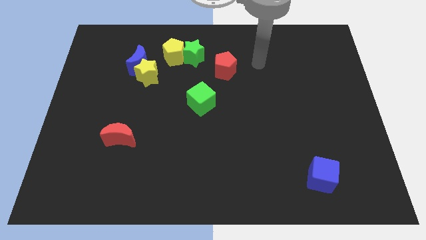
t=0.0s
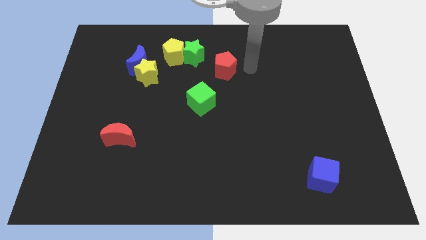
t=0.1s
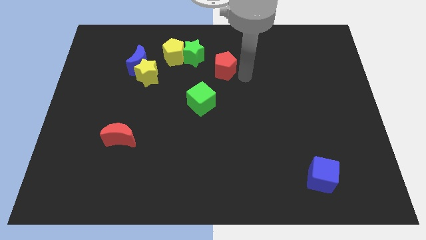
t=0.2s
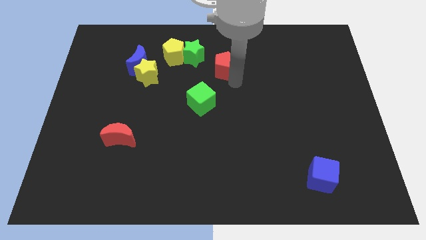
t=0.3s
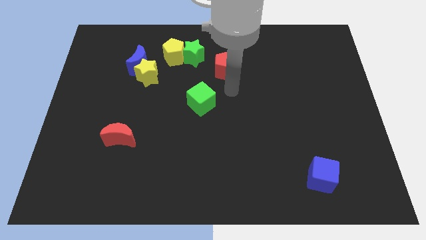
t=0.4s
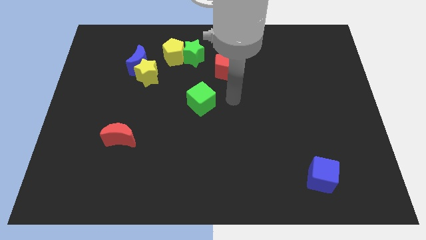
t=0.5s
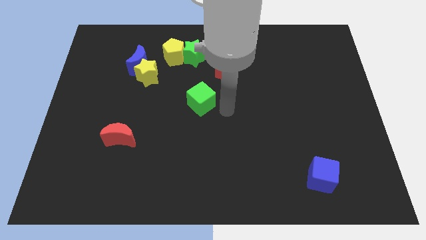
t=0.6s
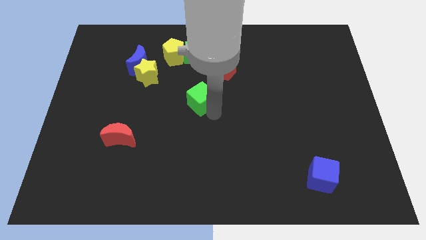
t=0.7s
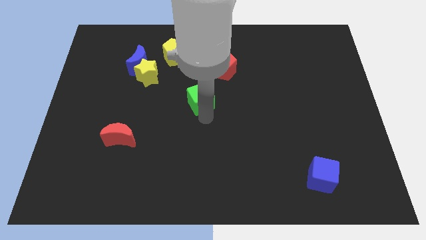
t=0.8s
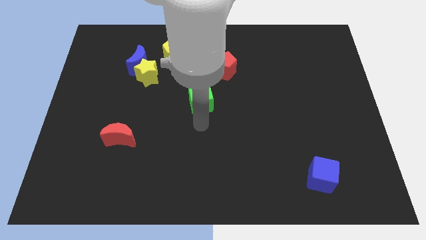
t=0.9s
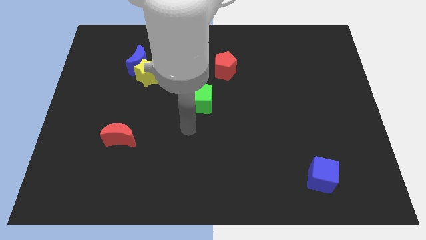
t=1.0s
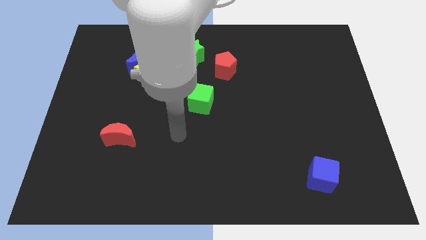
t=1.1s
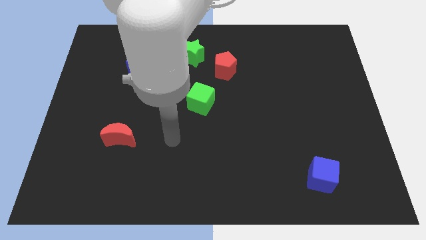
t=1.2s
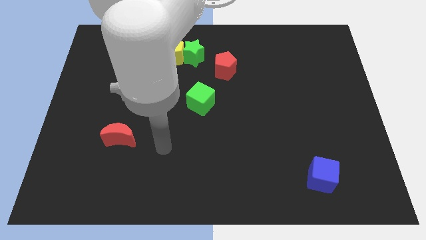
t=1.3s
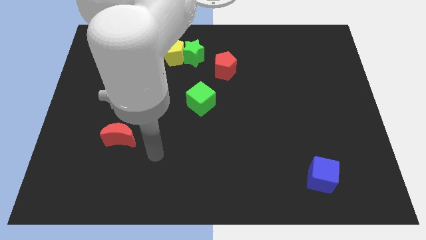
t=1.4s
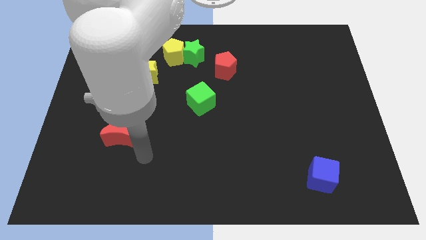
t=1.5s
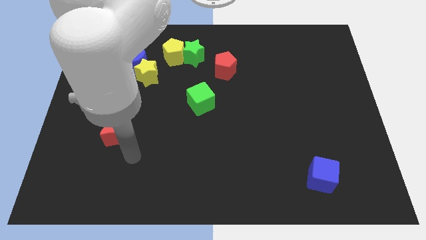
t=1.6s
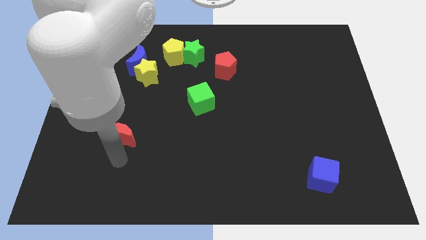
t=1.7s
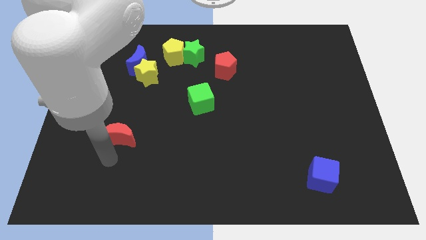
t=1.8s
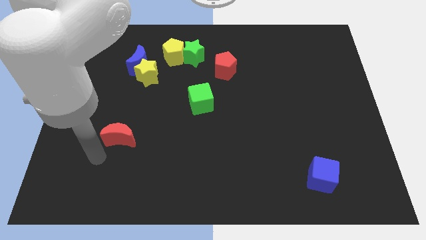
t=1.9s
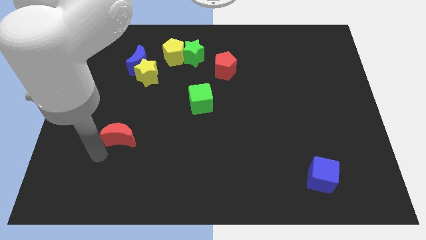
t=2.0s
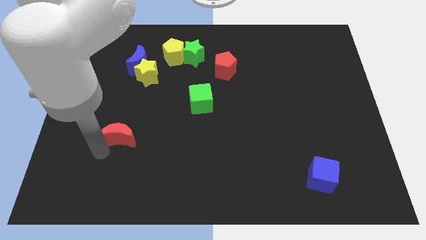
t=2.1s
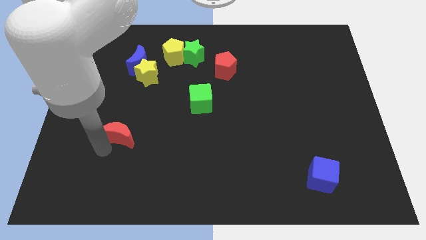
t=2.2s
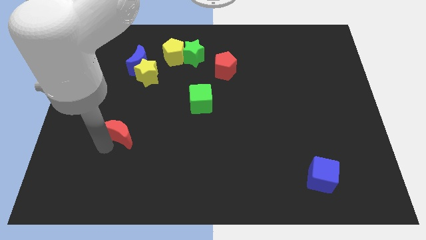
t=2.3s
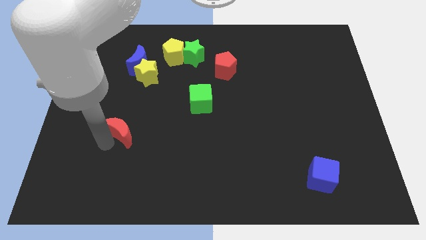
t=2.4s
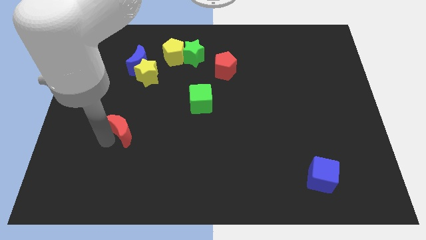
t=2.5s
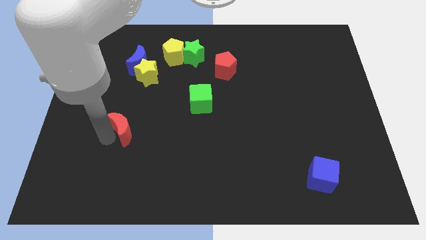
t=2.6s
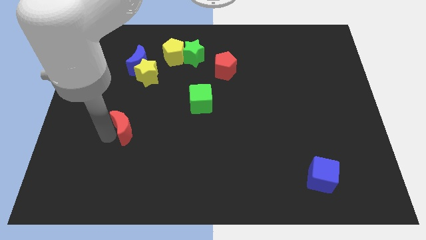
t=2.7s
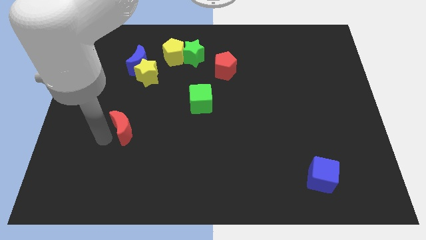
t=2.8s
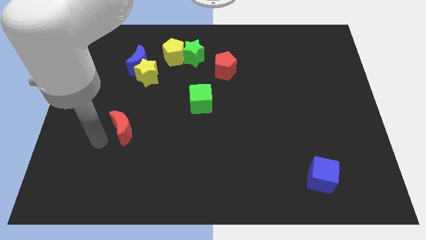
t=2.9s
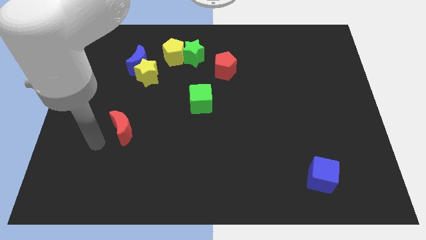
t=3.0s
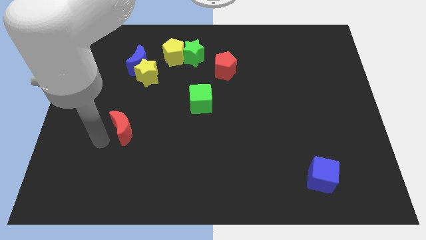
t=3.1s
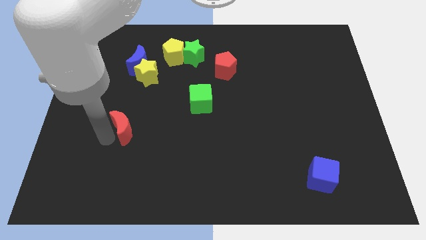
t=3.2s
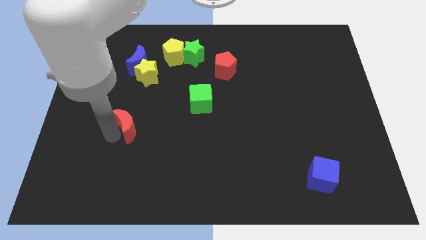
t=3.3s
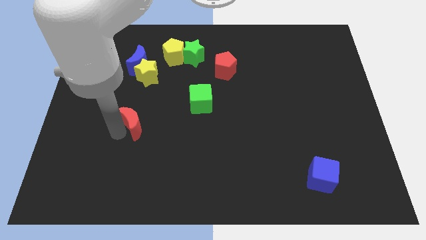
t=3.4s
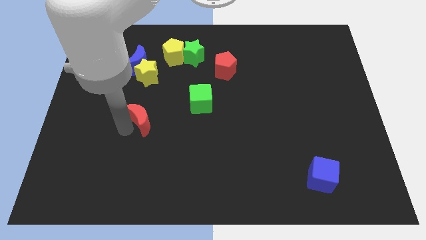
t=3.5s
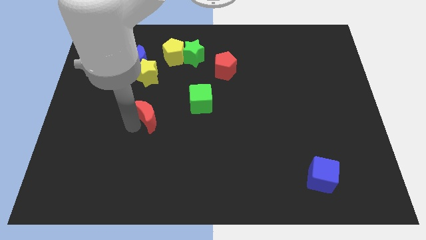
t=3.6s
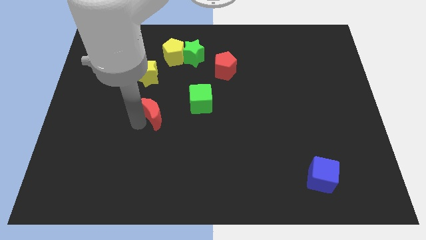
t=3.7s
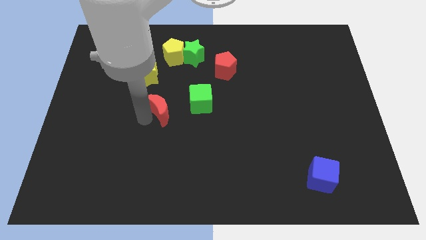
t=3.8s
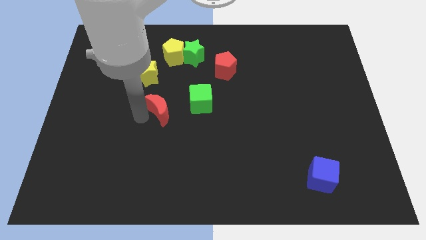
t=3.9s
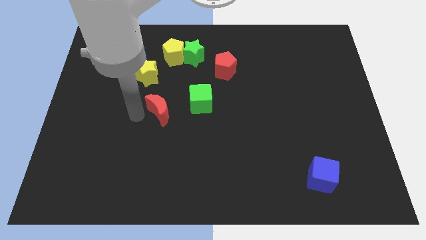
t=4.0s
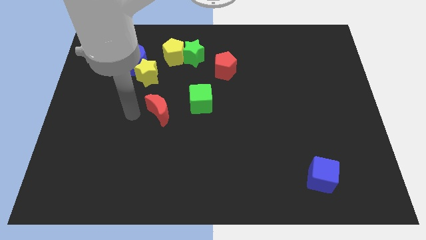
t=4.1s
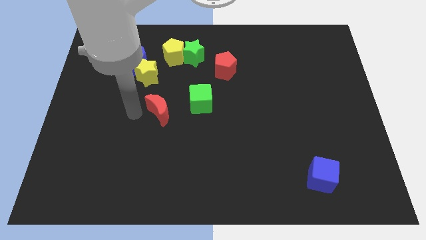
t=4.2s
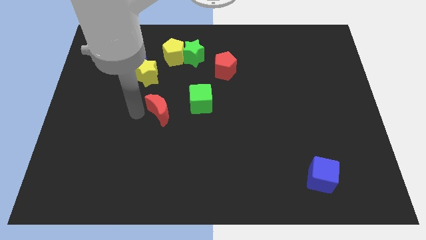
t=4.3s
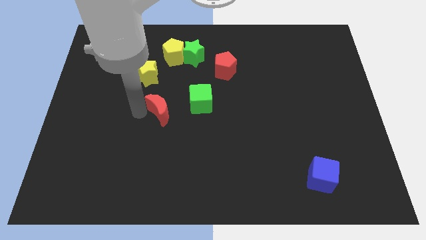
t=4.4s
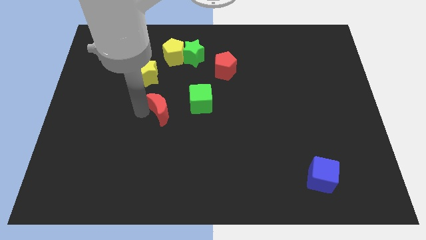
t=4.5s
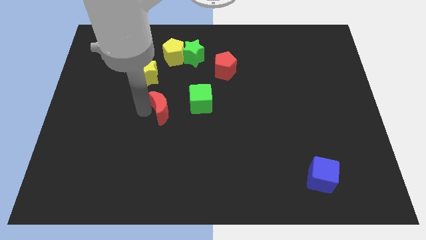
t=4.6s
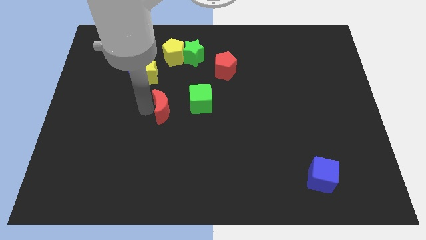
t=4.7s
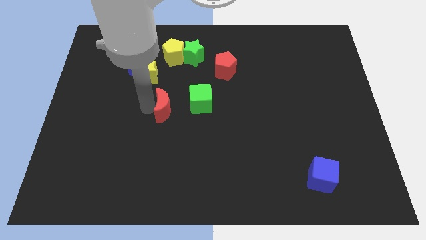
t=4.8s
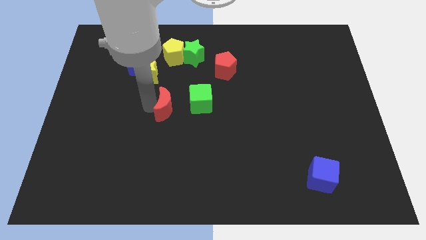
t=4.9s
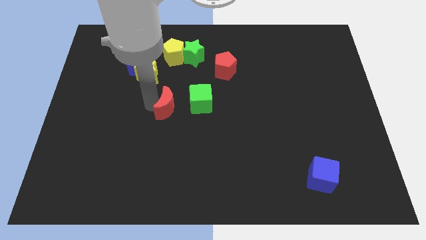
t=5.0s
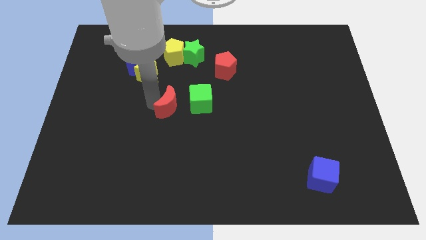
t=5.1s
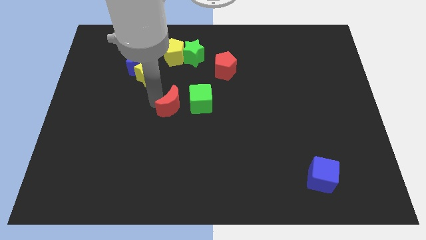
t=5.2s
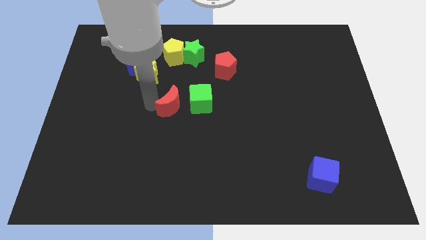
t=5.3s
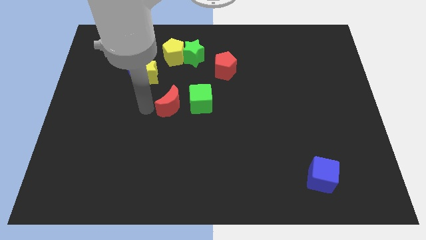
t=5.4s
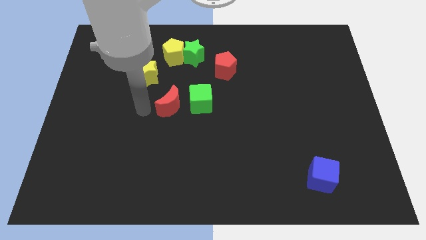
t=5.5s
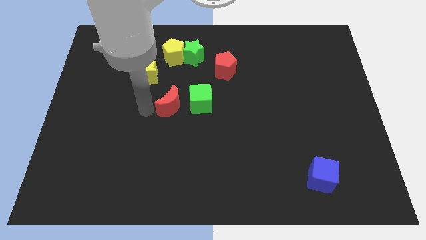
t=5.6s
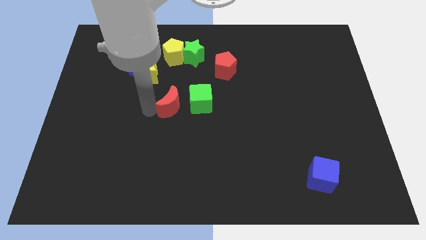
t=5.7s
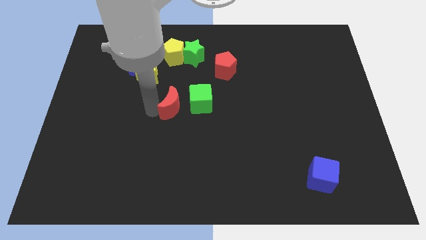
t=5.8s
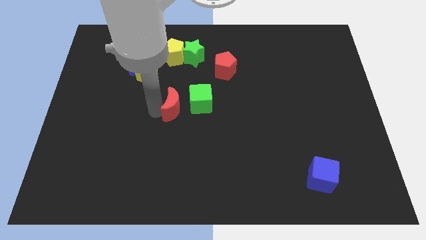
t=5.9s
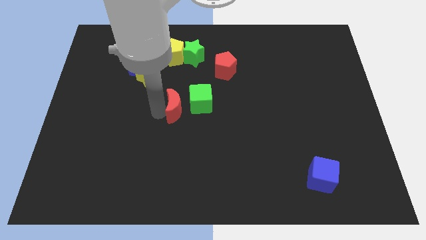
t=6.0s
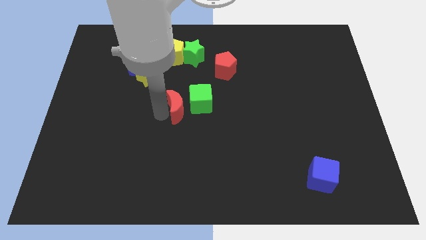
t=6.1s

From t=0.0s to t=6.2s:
move the red moon towards the green cube
